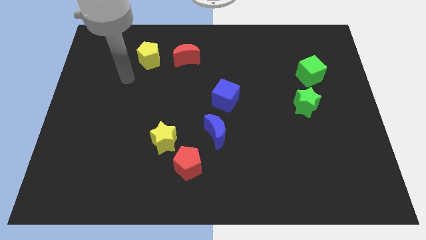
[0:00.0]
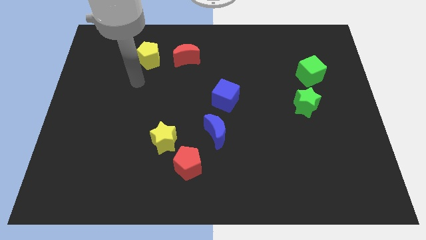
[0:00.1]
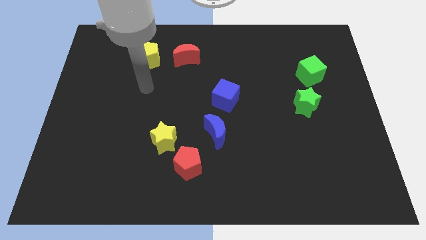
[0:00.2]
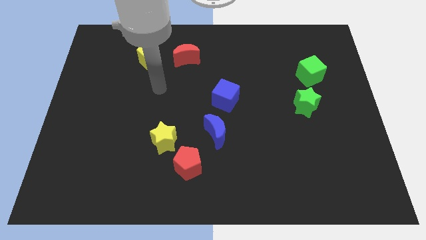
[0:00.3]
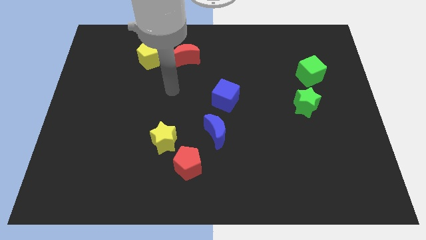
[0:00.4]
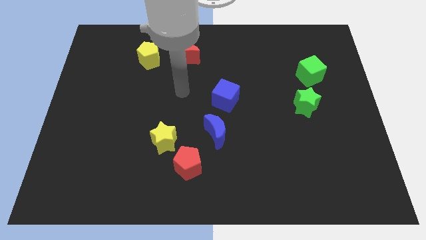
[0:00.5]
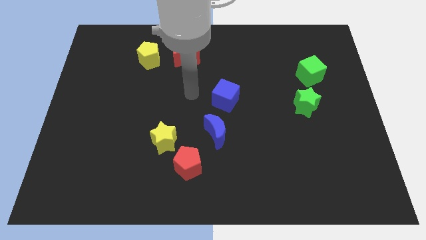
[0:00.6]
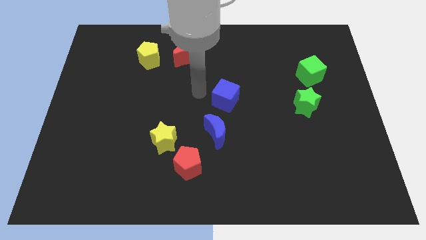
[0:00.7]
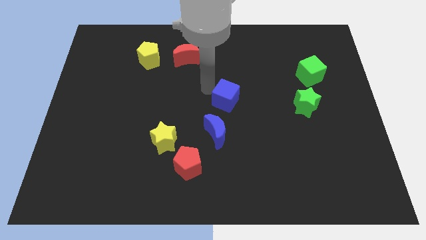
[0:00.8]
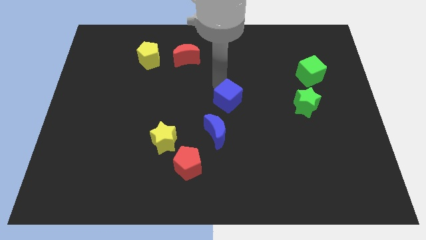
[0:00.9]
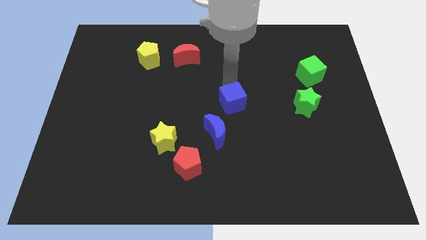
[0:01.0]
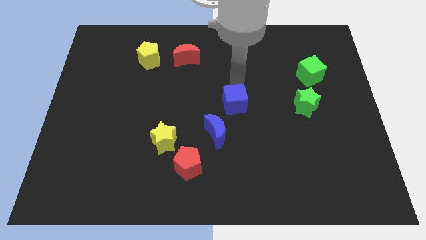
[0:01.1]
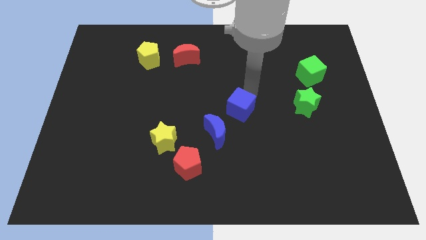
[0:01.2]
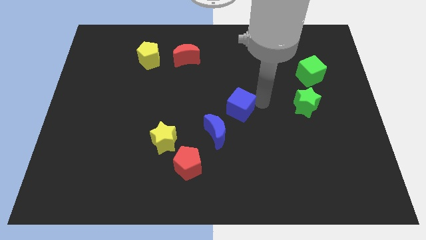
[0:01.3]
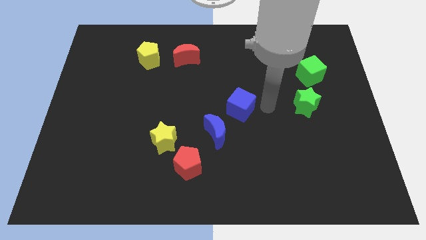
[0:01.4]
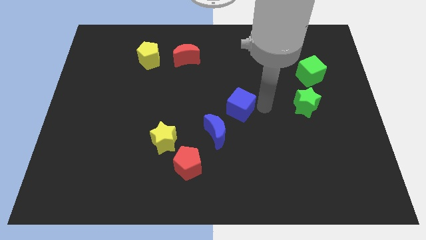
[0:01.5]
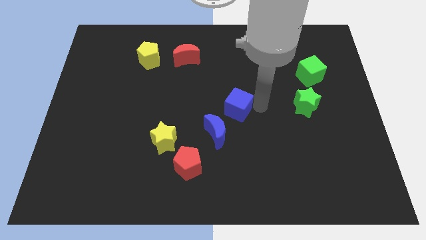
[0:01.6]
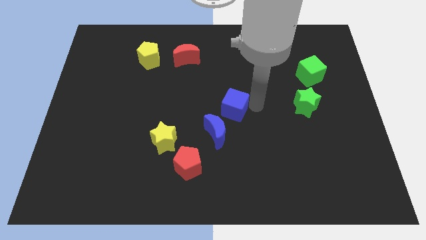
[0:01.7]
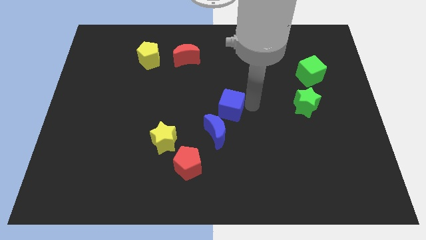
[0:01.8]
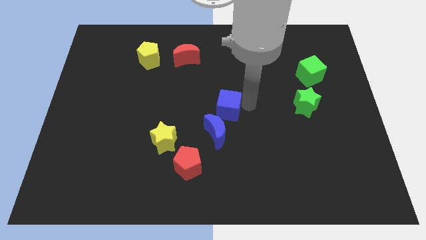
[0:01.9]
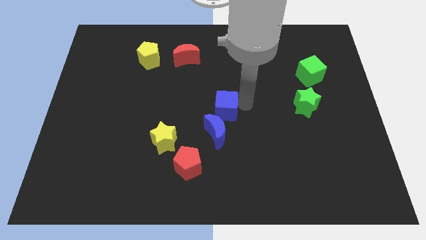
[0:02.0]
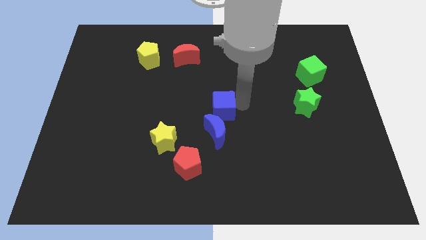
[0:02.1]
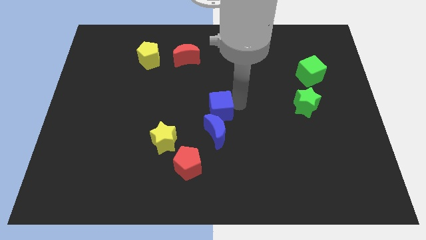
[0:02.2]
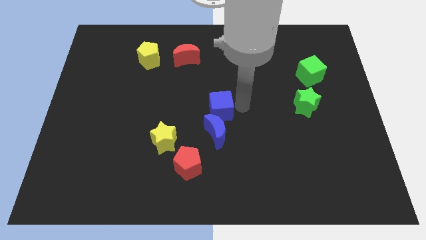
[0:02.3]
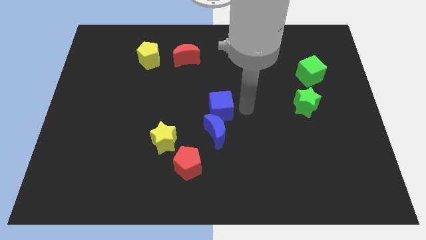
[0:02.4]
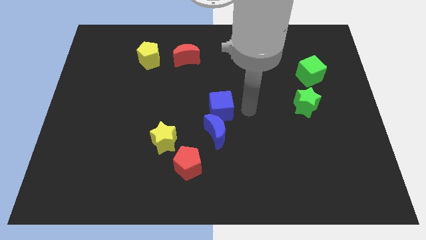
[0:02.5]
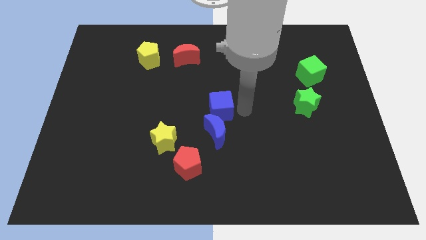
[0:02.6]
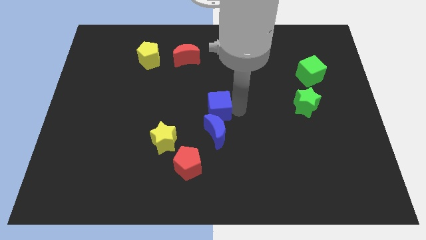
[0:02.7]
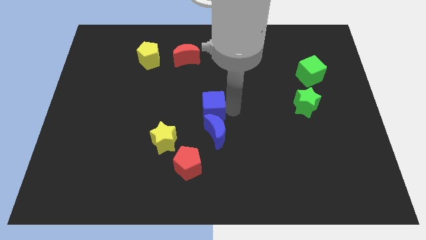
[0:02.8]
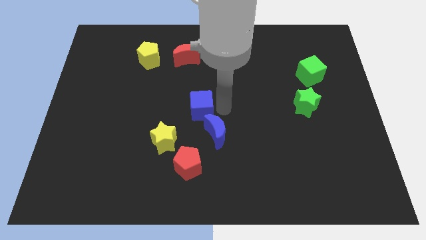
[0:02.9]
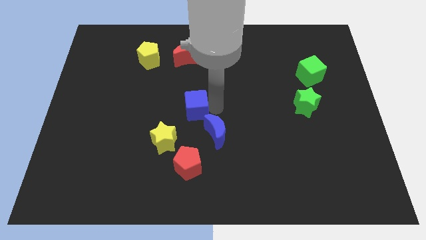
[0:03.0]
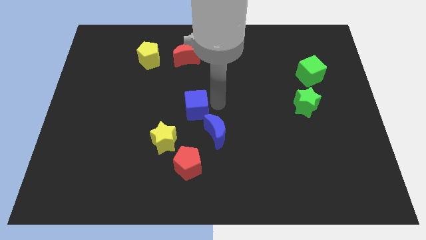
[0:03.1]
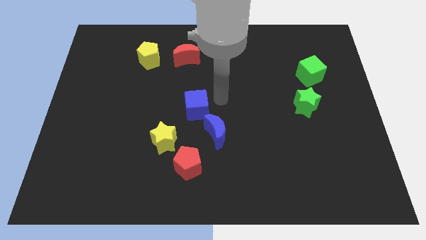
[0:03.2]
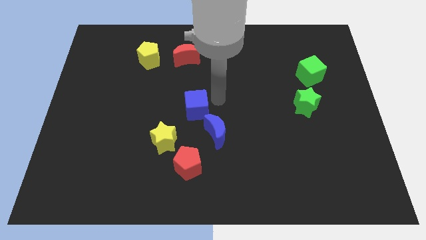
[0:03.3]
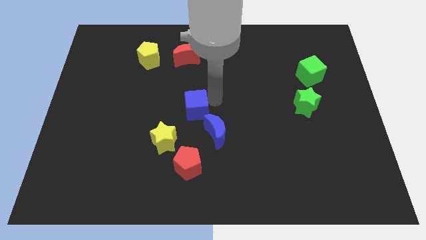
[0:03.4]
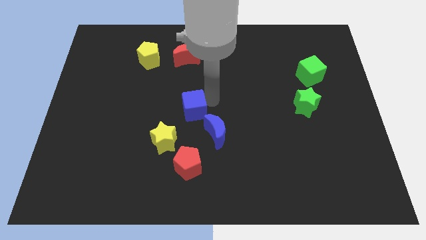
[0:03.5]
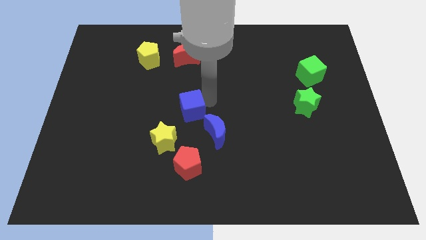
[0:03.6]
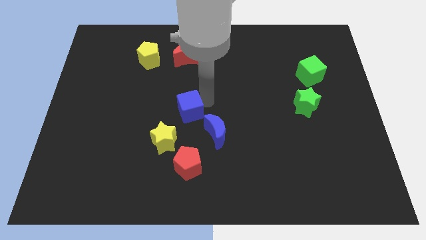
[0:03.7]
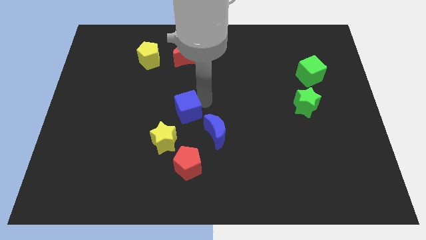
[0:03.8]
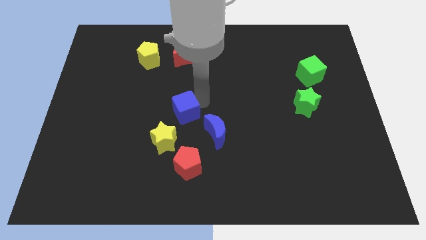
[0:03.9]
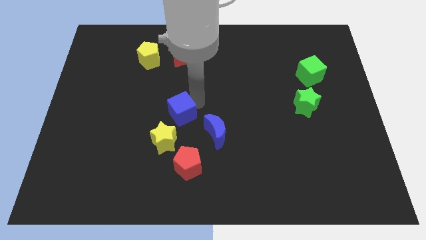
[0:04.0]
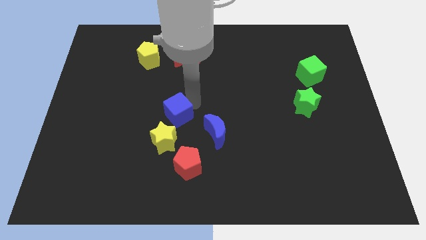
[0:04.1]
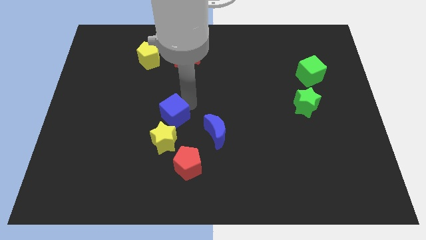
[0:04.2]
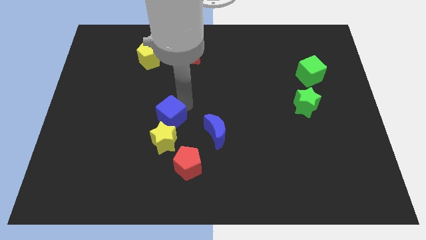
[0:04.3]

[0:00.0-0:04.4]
push the blue cube left of the blue moon

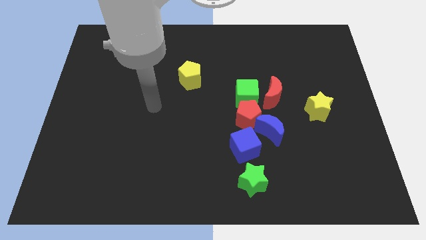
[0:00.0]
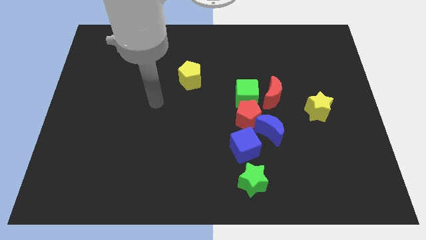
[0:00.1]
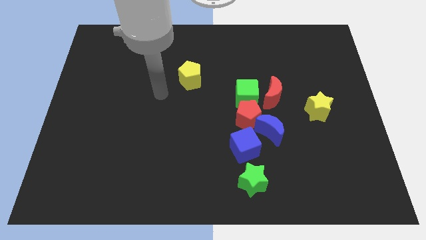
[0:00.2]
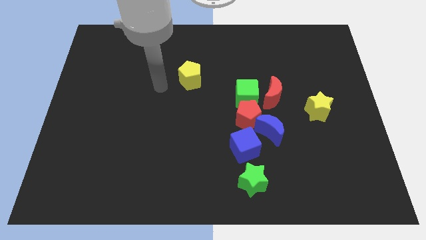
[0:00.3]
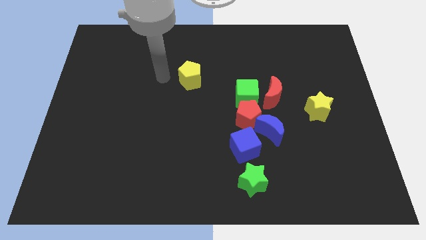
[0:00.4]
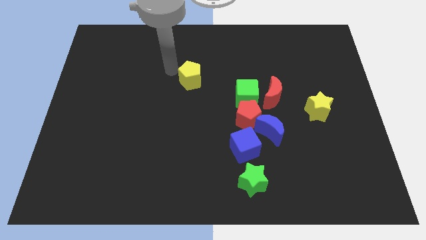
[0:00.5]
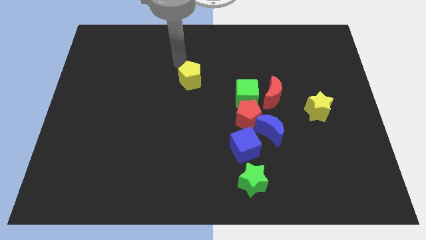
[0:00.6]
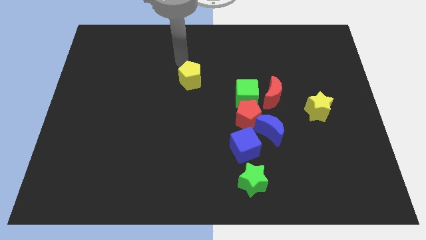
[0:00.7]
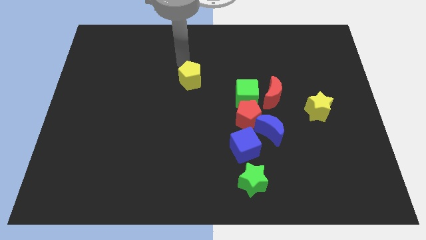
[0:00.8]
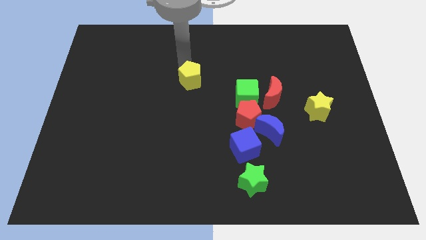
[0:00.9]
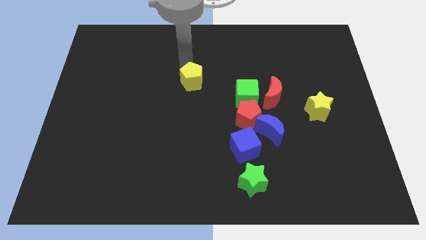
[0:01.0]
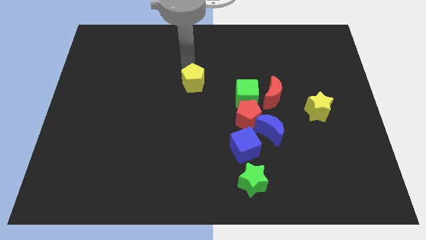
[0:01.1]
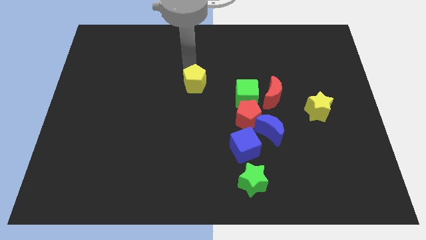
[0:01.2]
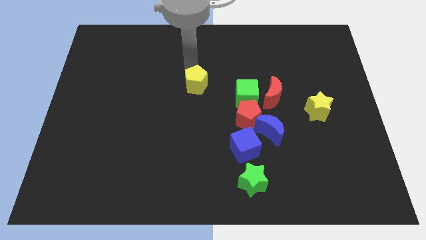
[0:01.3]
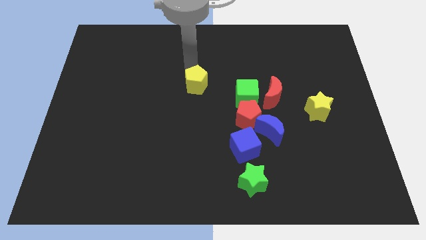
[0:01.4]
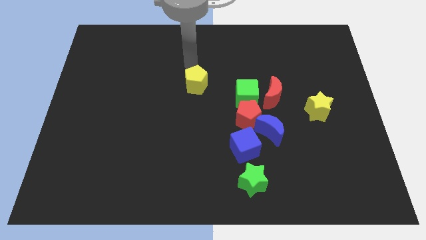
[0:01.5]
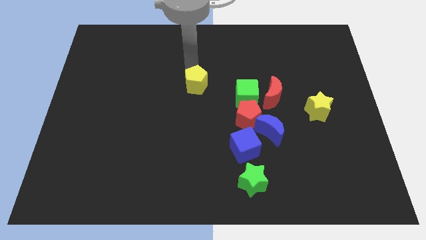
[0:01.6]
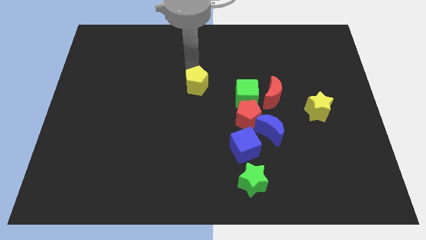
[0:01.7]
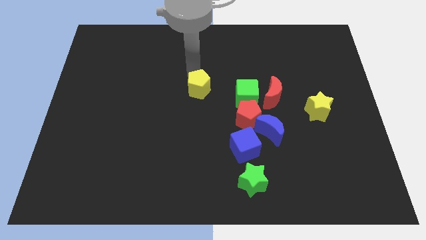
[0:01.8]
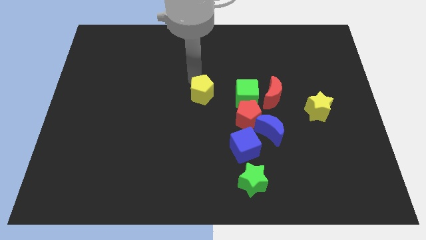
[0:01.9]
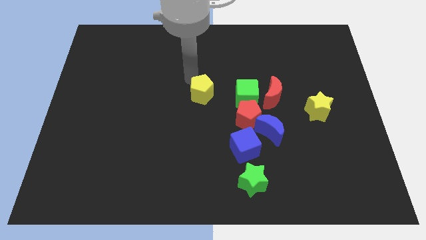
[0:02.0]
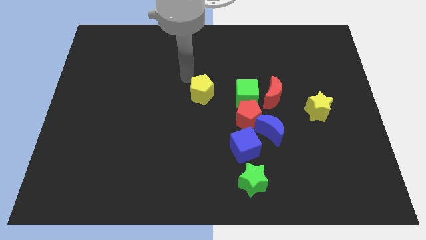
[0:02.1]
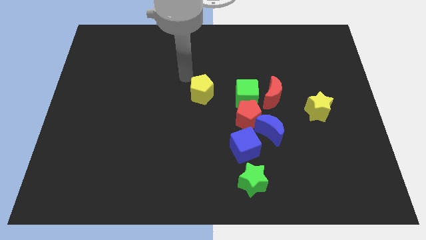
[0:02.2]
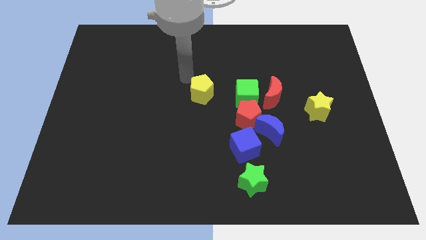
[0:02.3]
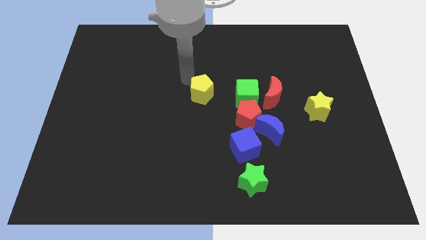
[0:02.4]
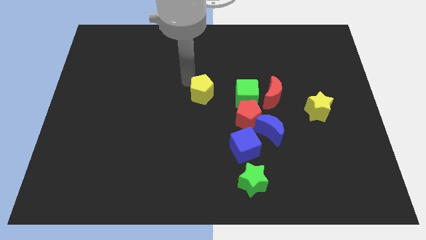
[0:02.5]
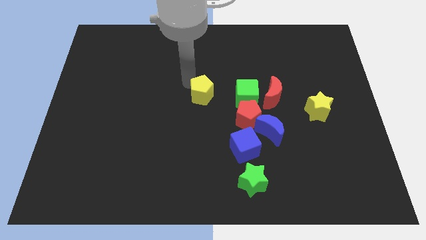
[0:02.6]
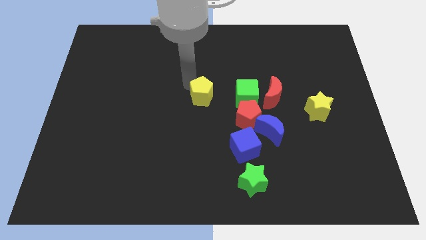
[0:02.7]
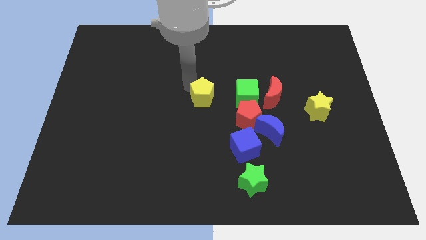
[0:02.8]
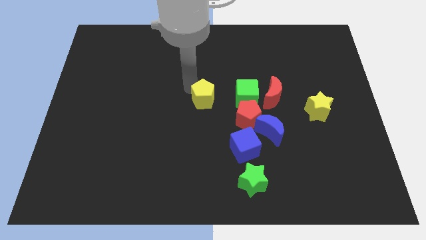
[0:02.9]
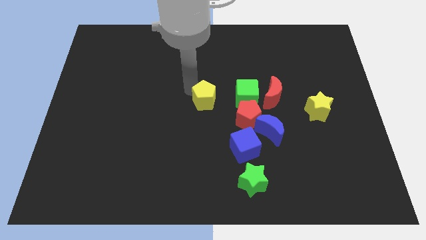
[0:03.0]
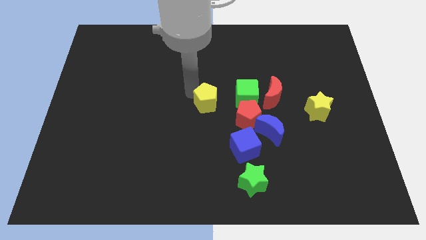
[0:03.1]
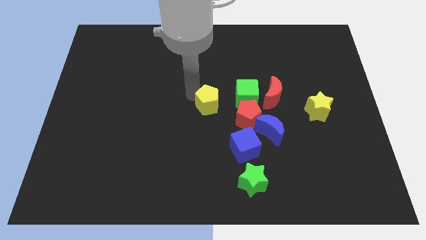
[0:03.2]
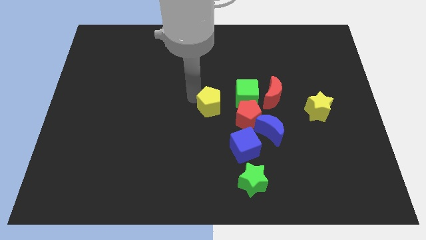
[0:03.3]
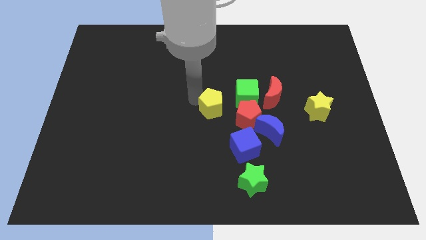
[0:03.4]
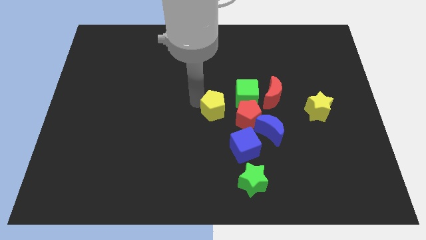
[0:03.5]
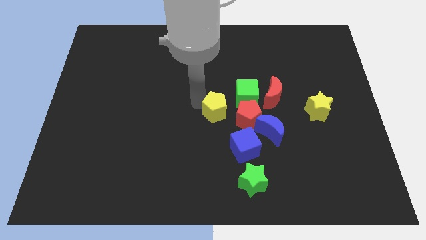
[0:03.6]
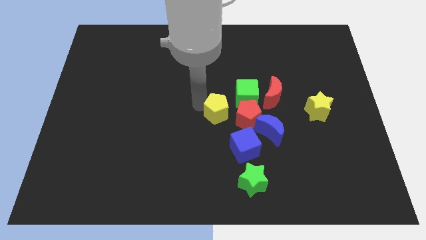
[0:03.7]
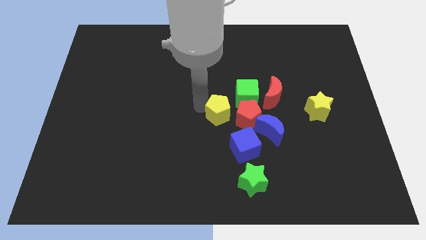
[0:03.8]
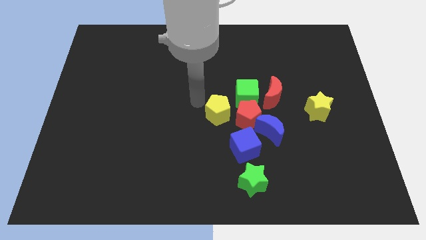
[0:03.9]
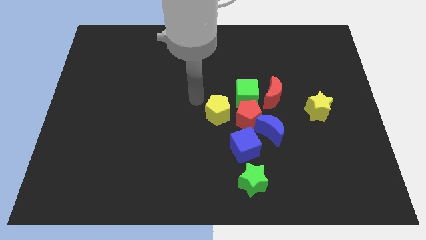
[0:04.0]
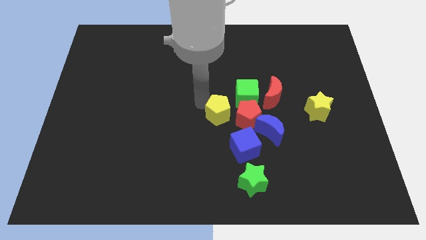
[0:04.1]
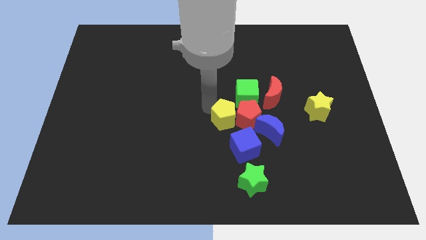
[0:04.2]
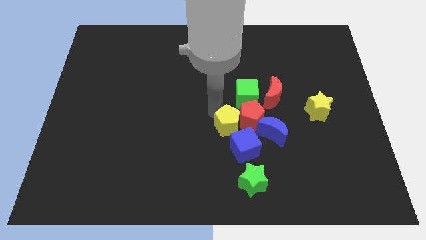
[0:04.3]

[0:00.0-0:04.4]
move the yellow pentagon to the bottom side of the green cube
